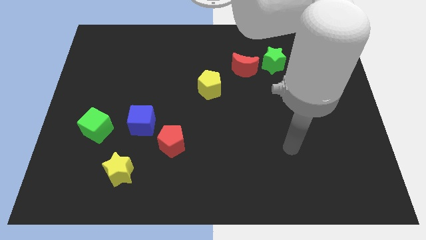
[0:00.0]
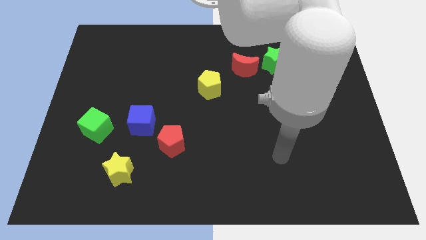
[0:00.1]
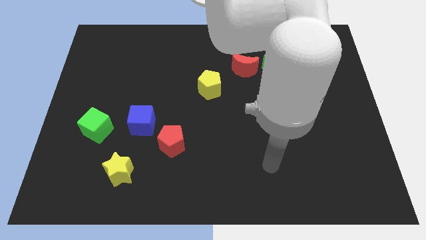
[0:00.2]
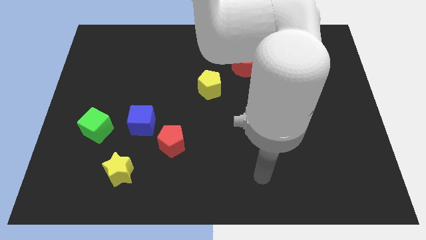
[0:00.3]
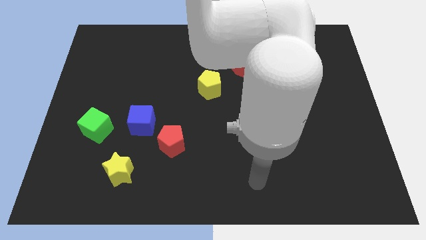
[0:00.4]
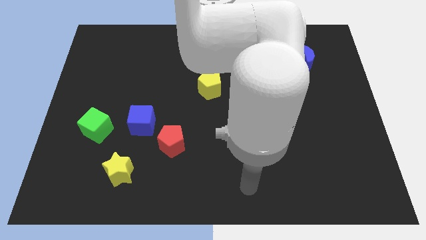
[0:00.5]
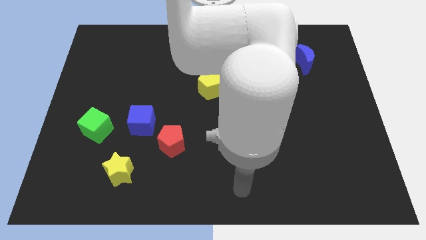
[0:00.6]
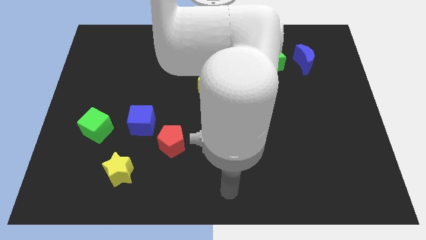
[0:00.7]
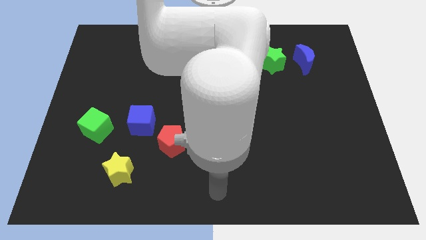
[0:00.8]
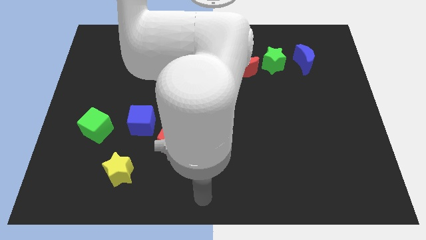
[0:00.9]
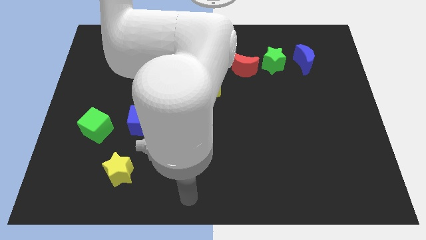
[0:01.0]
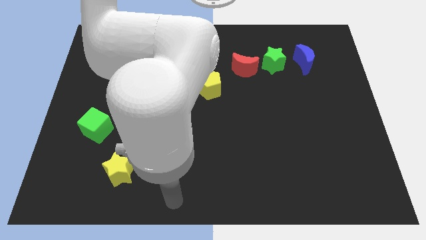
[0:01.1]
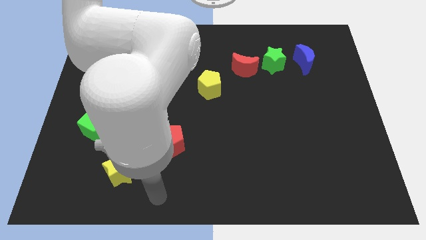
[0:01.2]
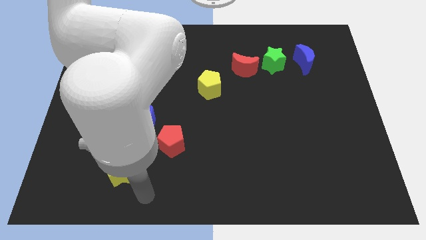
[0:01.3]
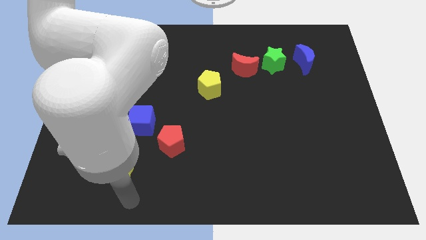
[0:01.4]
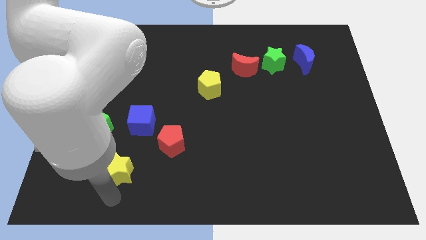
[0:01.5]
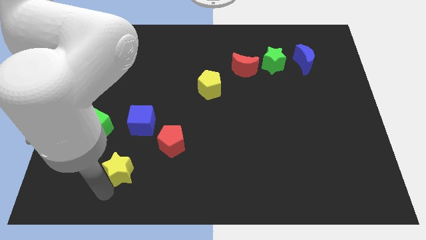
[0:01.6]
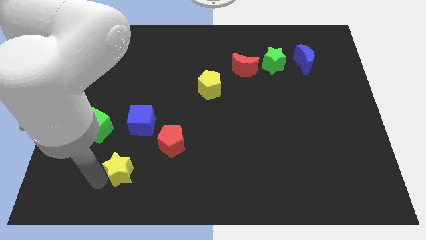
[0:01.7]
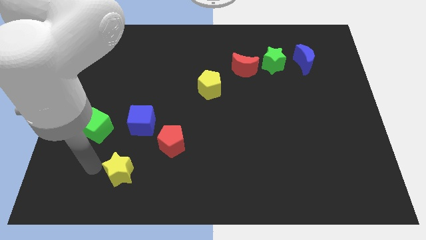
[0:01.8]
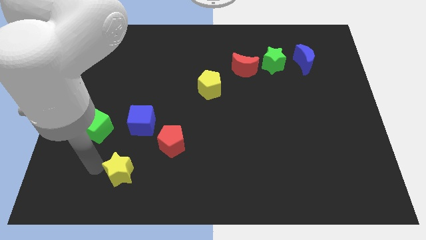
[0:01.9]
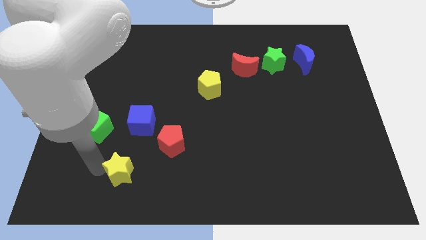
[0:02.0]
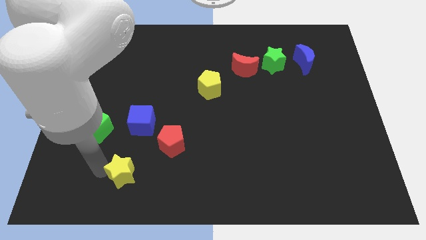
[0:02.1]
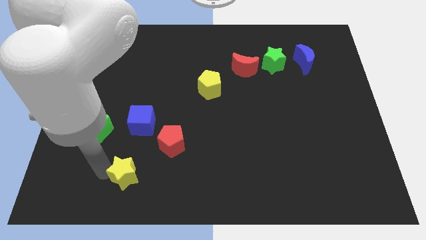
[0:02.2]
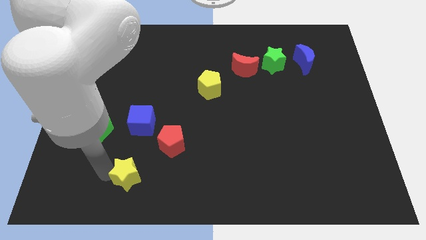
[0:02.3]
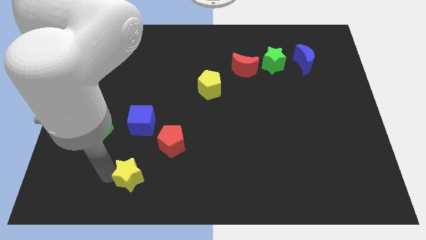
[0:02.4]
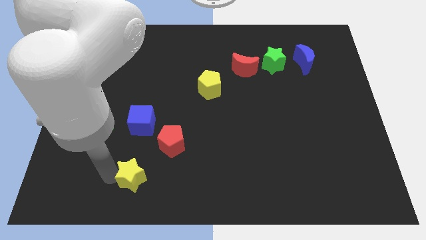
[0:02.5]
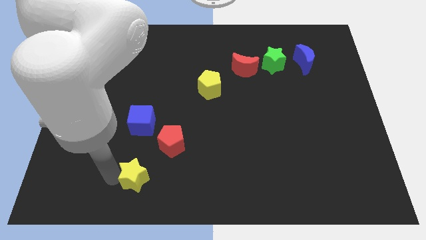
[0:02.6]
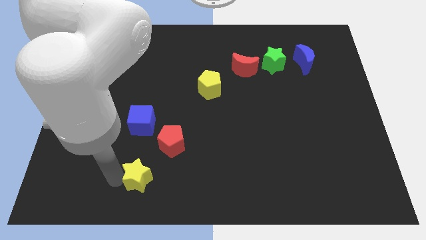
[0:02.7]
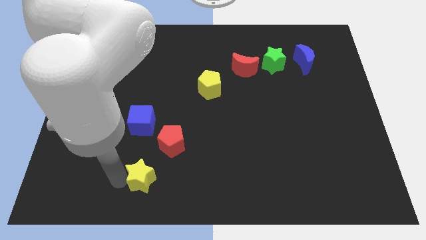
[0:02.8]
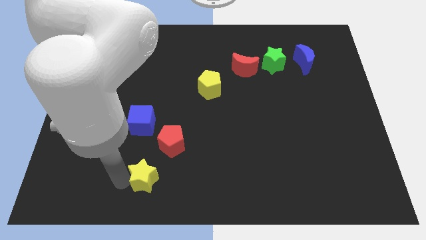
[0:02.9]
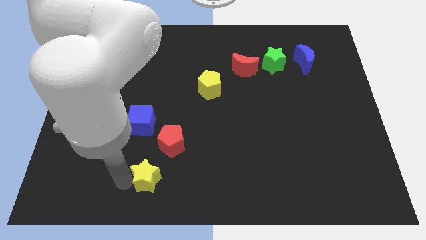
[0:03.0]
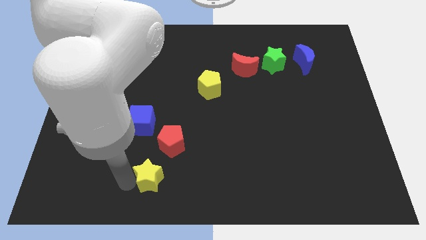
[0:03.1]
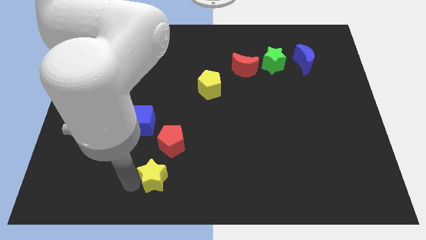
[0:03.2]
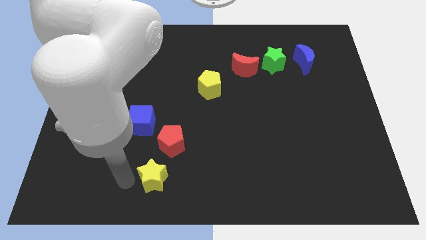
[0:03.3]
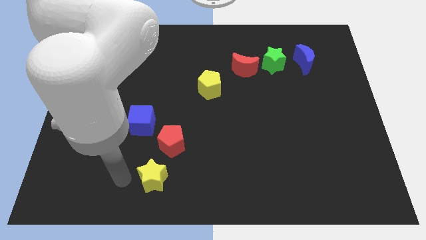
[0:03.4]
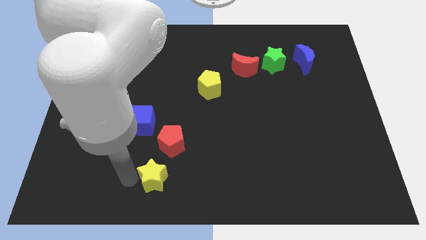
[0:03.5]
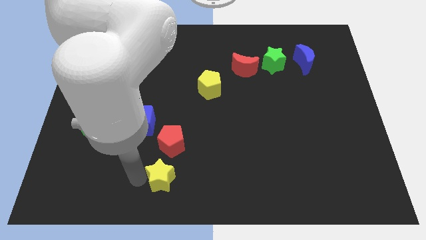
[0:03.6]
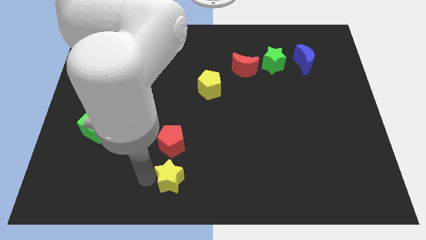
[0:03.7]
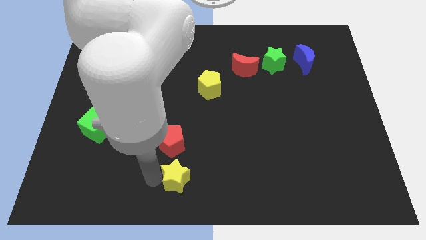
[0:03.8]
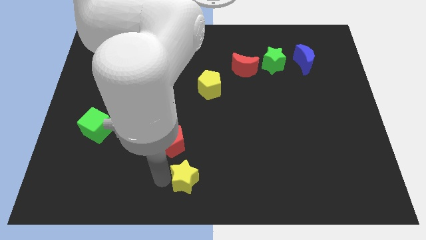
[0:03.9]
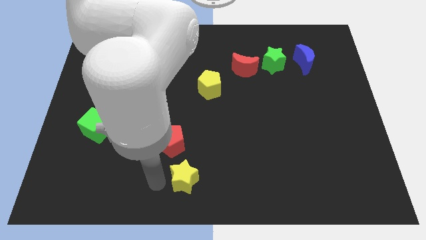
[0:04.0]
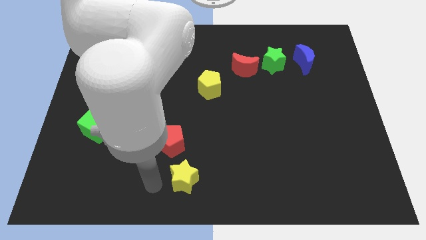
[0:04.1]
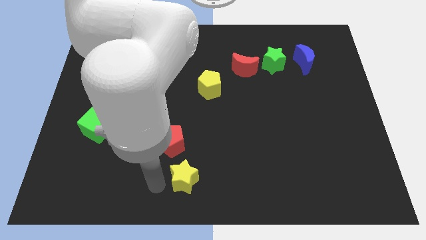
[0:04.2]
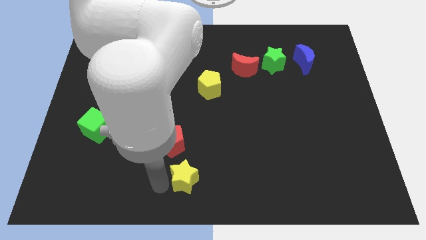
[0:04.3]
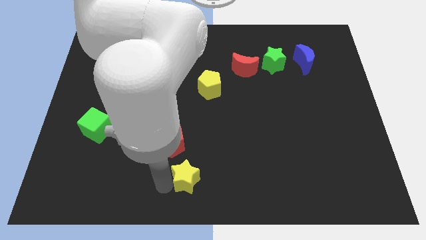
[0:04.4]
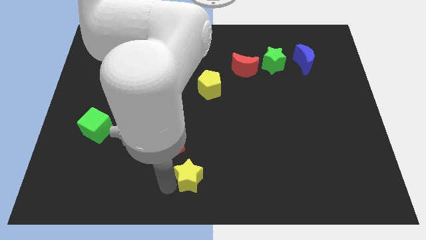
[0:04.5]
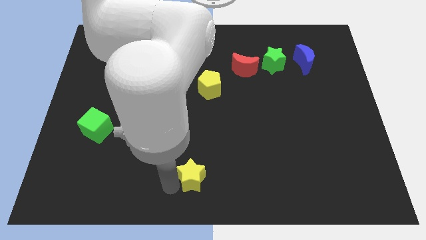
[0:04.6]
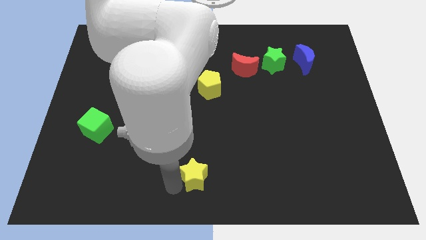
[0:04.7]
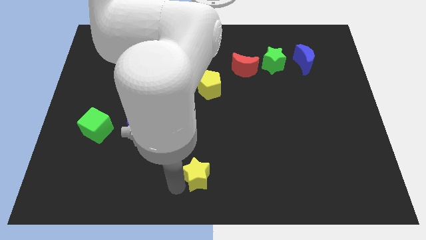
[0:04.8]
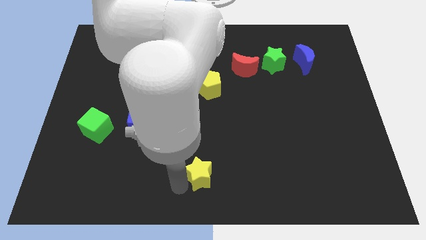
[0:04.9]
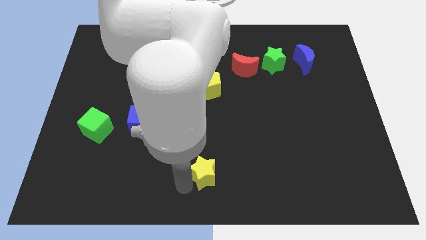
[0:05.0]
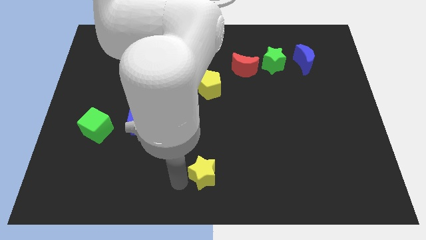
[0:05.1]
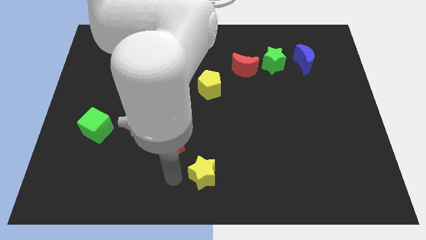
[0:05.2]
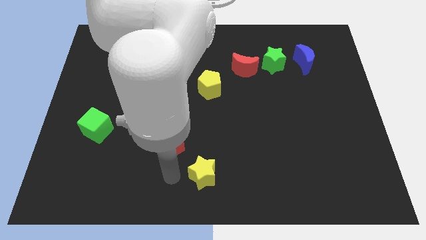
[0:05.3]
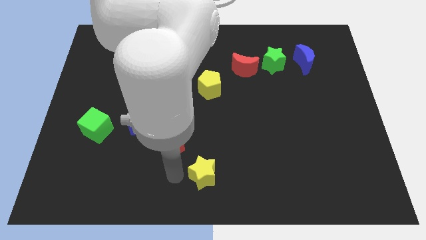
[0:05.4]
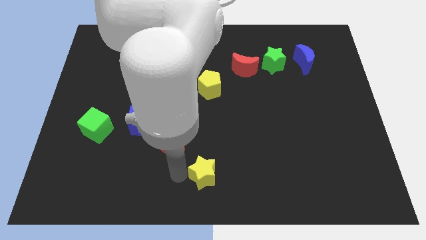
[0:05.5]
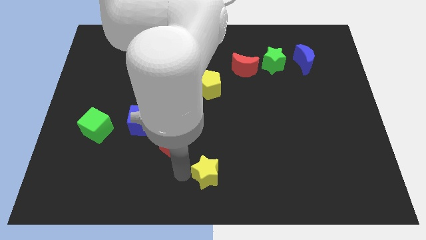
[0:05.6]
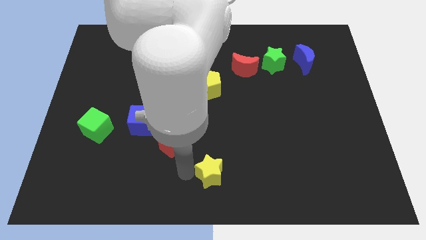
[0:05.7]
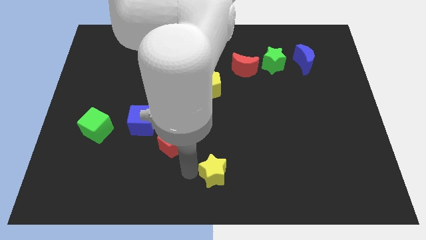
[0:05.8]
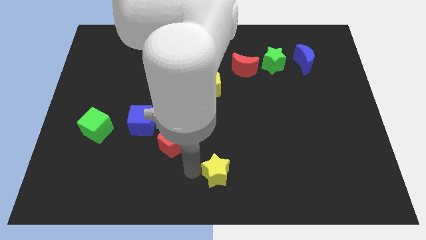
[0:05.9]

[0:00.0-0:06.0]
slide the yellow star right

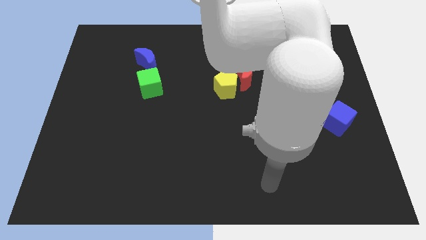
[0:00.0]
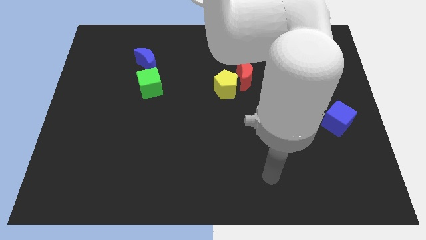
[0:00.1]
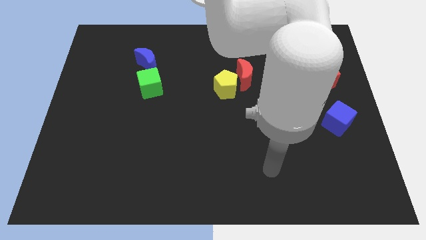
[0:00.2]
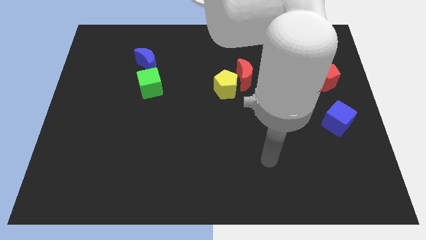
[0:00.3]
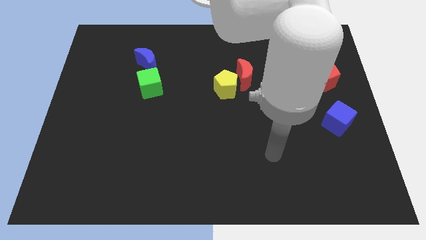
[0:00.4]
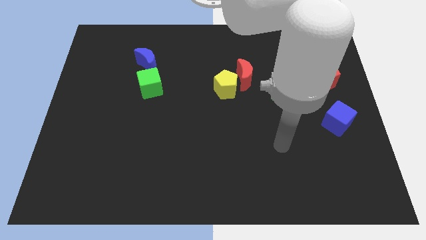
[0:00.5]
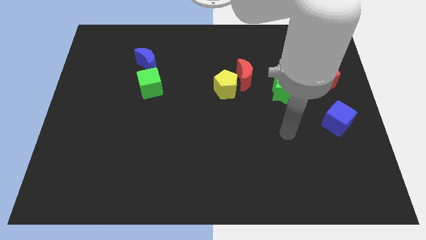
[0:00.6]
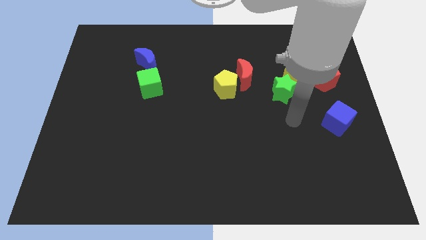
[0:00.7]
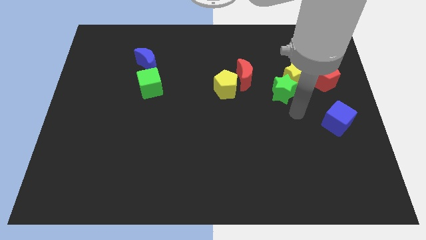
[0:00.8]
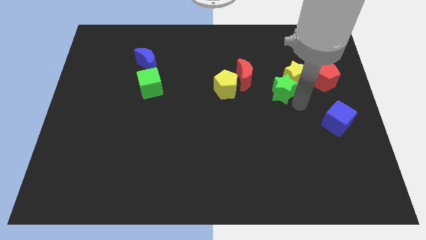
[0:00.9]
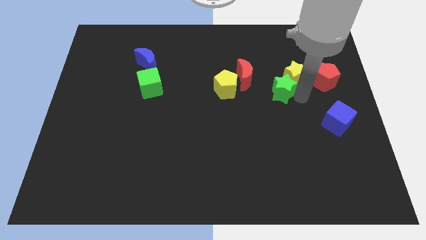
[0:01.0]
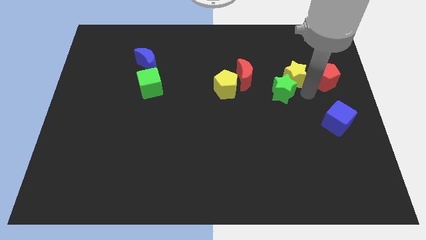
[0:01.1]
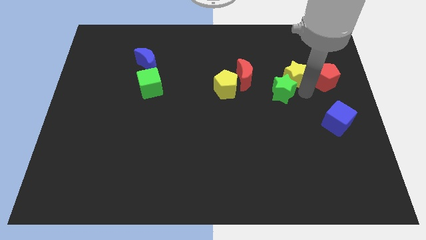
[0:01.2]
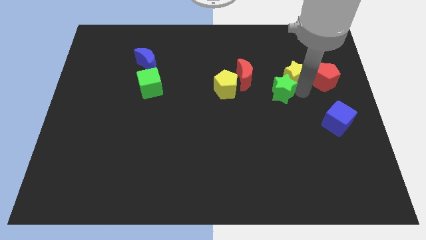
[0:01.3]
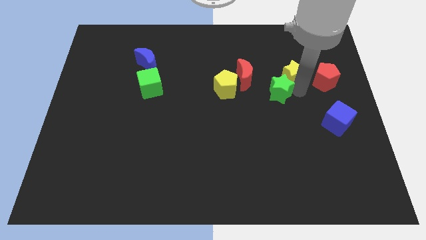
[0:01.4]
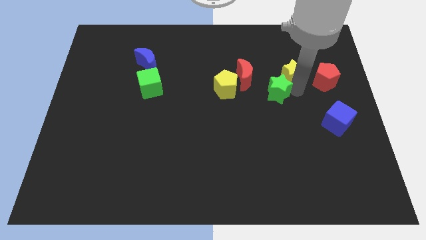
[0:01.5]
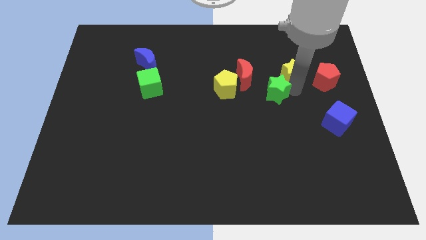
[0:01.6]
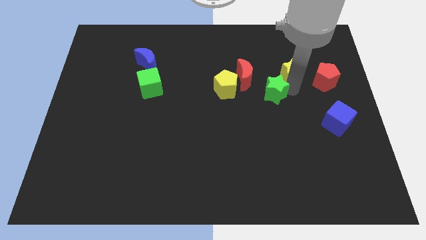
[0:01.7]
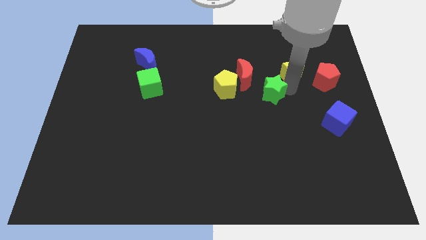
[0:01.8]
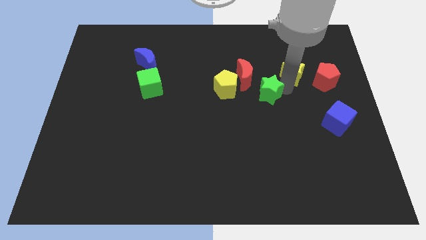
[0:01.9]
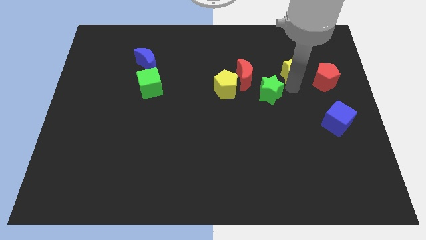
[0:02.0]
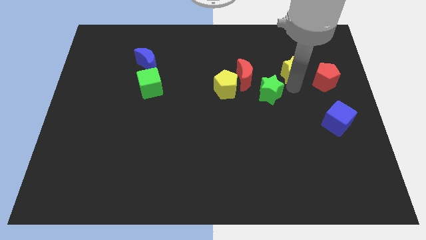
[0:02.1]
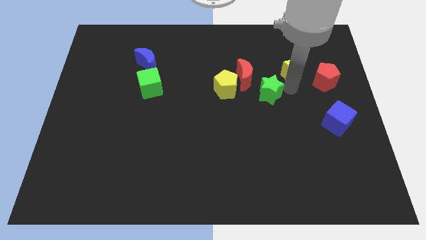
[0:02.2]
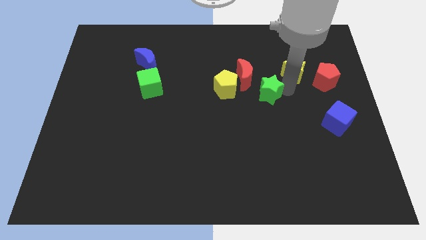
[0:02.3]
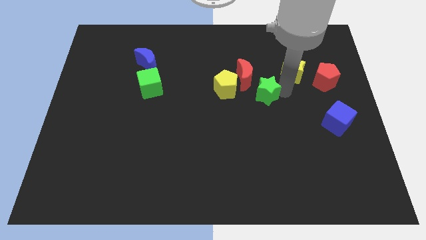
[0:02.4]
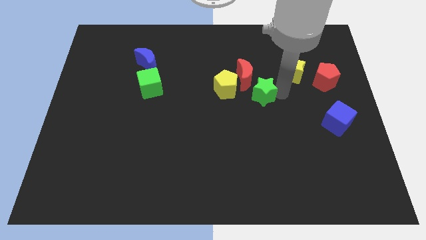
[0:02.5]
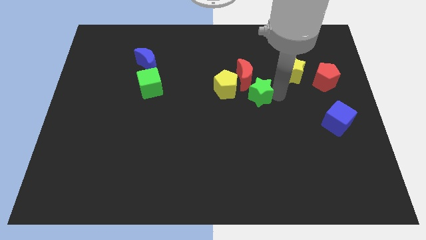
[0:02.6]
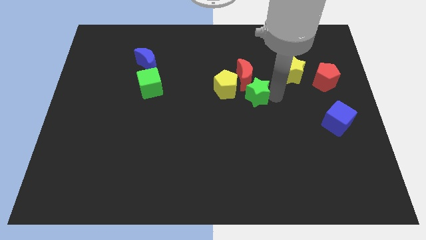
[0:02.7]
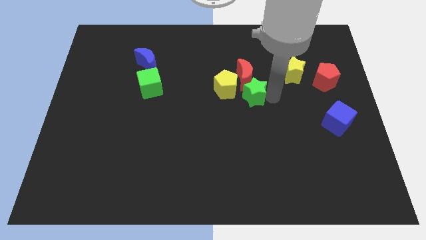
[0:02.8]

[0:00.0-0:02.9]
slightly move the green star left
